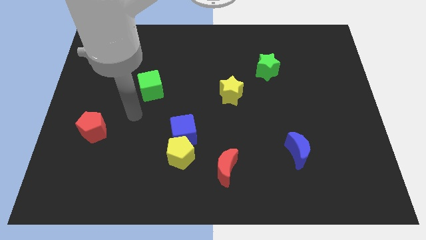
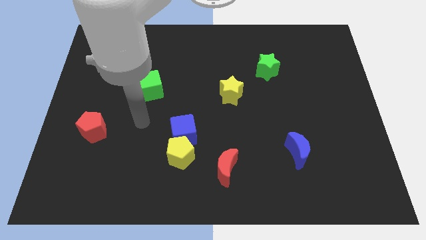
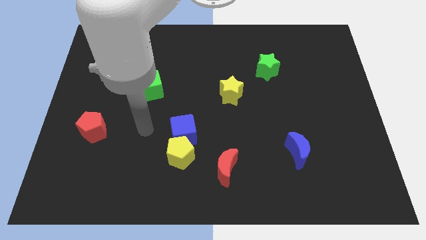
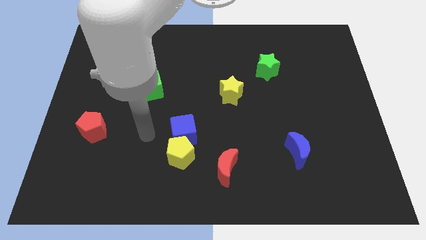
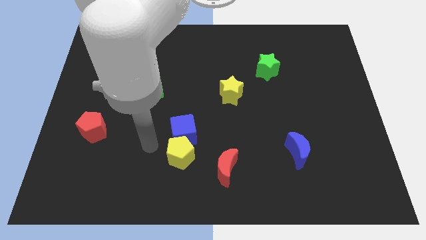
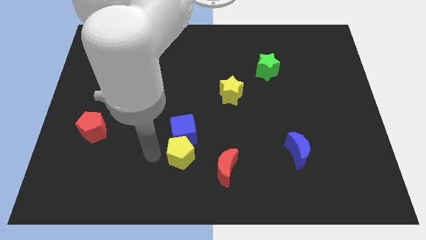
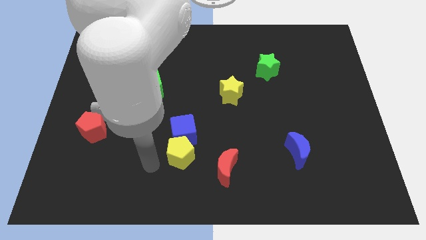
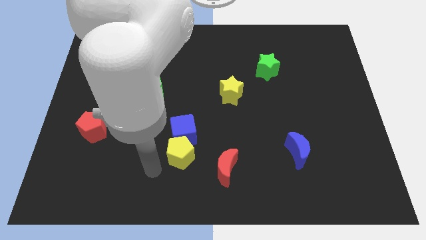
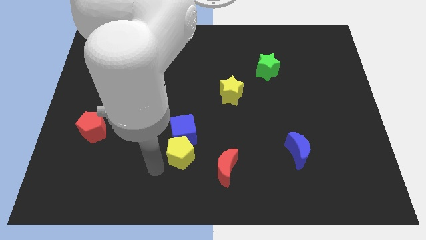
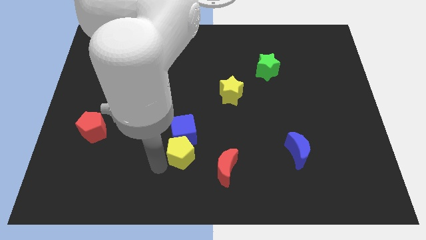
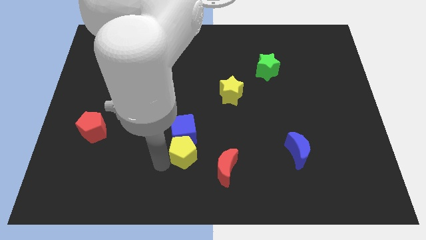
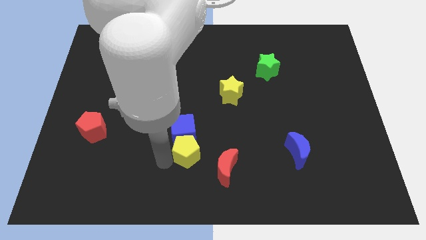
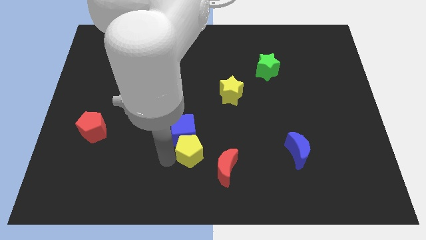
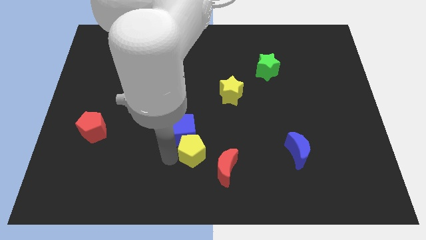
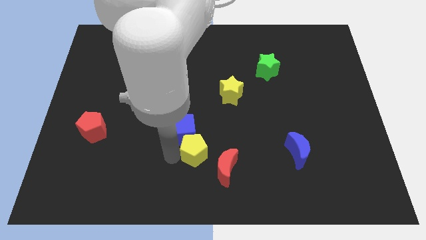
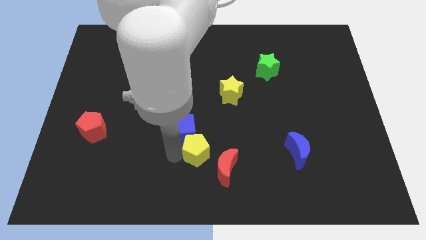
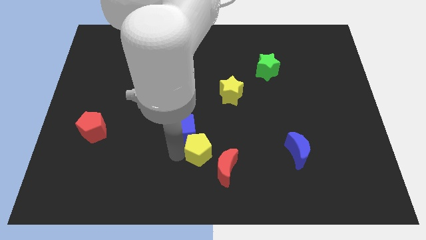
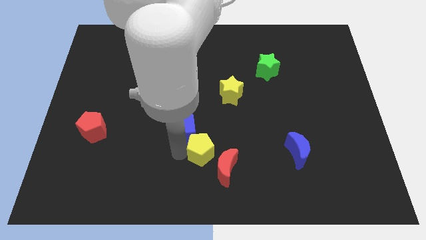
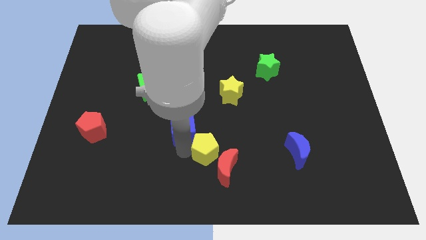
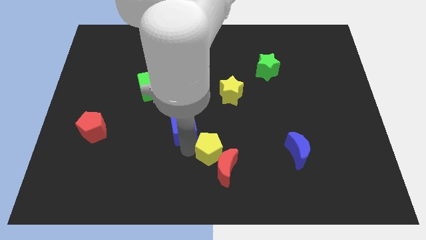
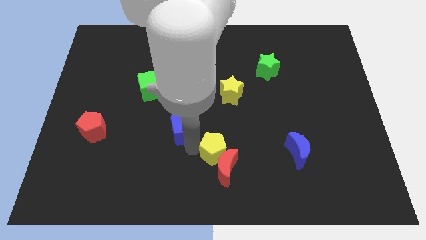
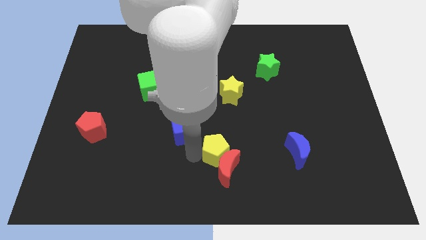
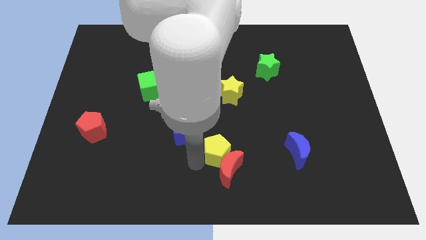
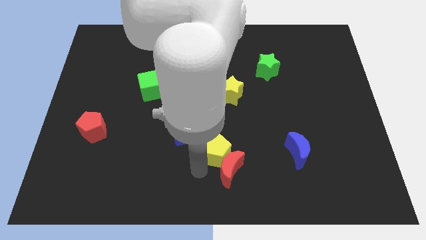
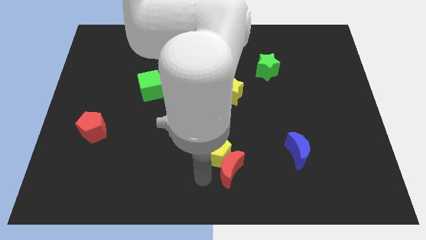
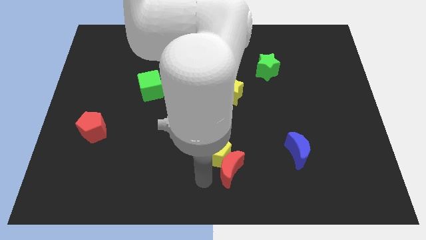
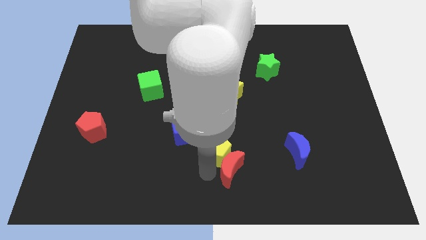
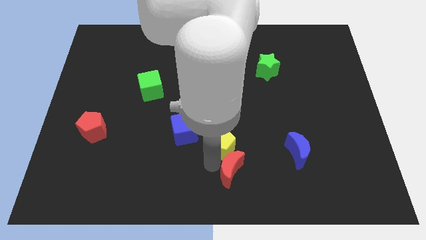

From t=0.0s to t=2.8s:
push the yellow pentagon slightly up and to the right diagonally

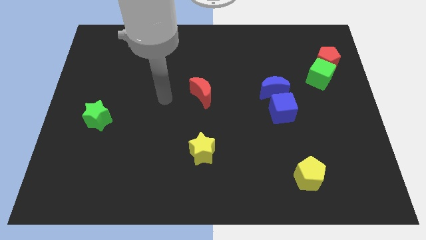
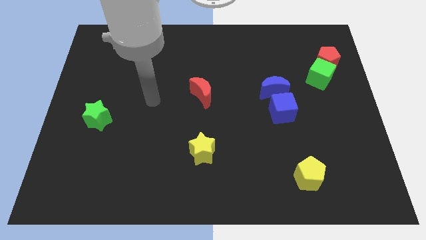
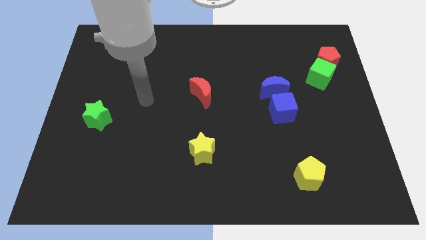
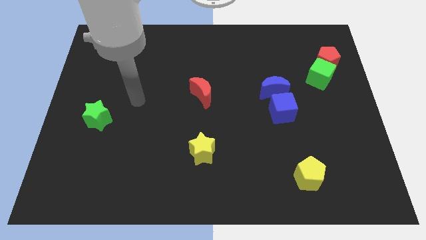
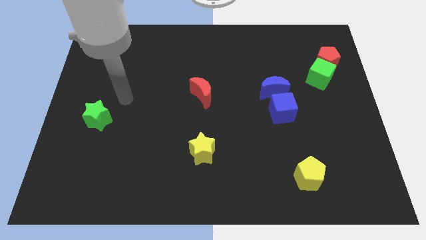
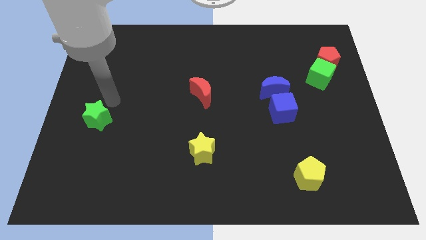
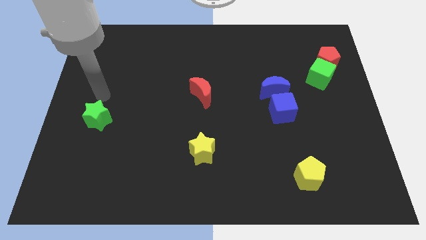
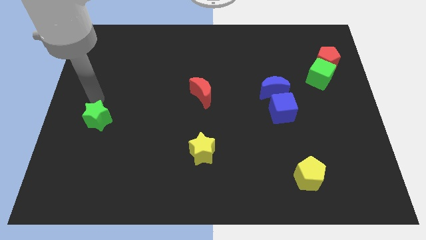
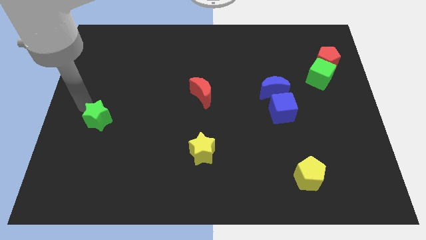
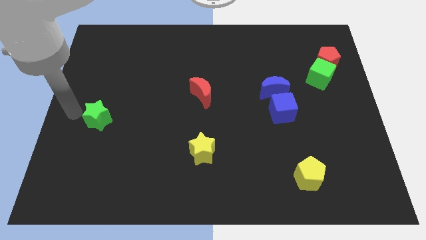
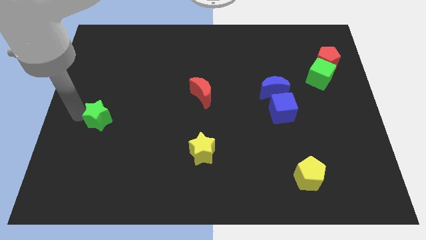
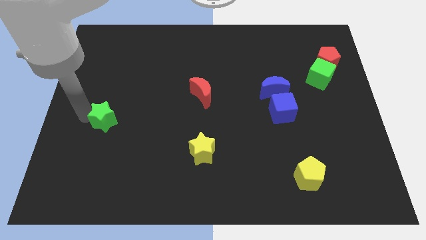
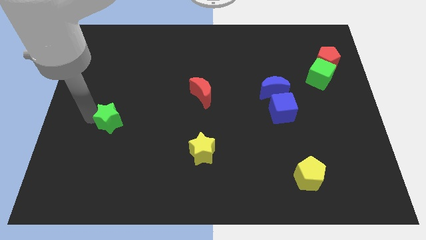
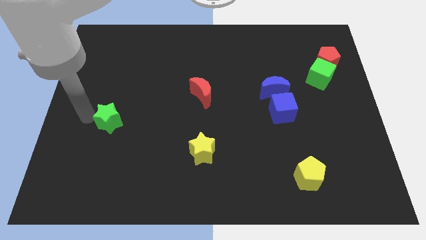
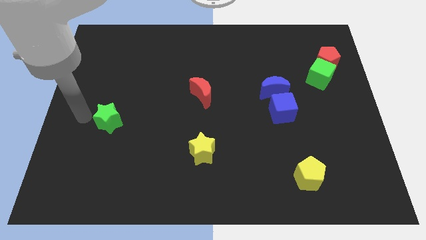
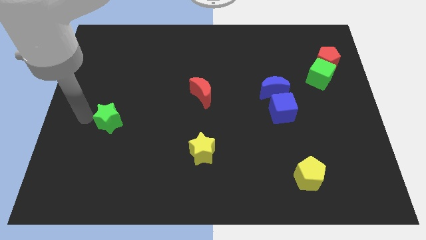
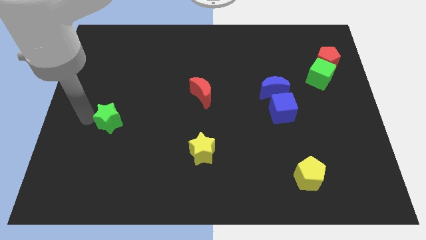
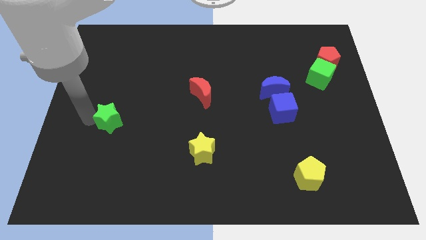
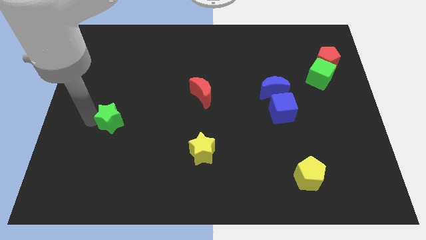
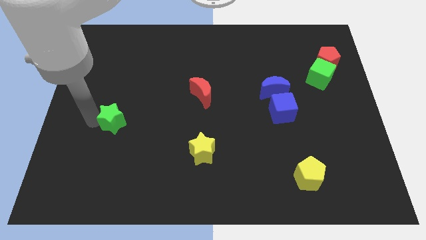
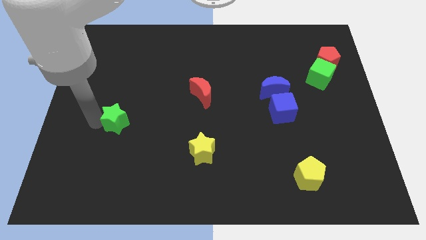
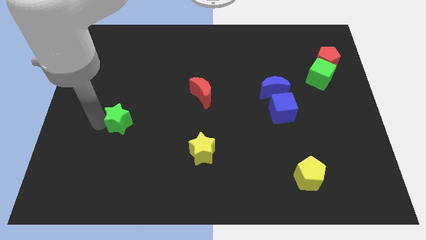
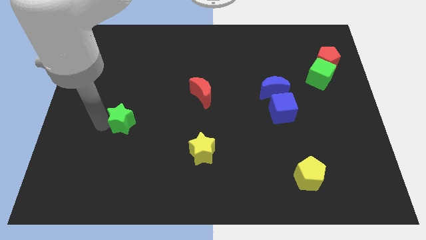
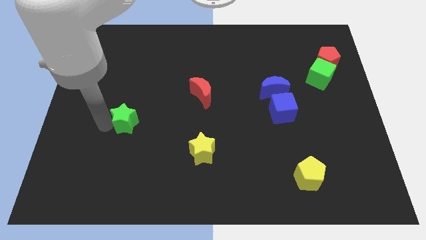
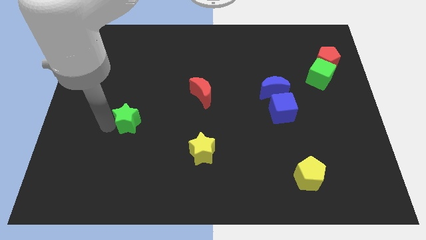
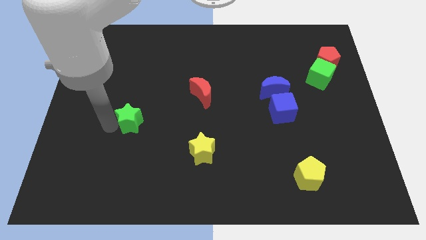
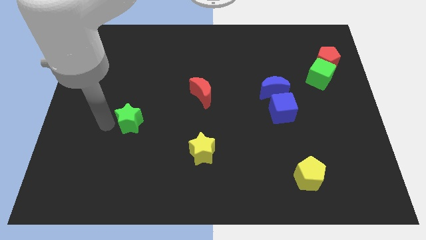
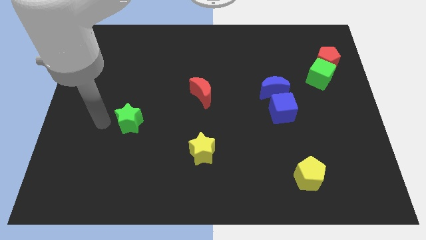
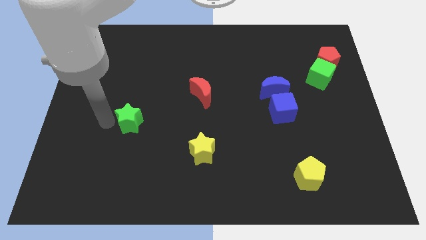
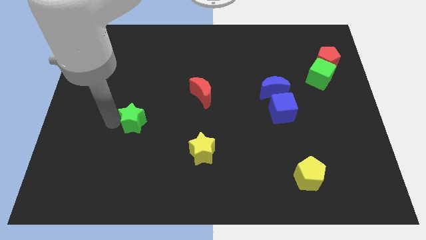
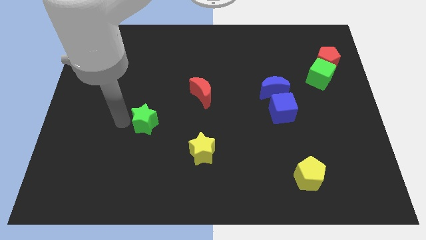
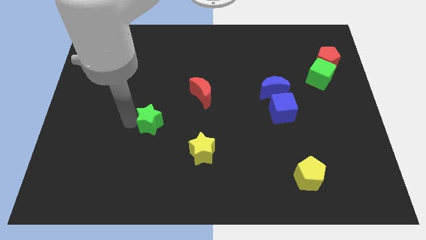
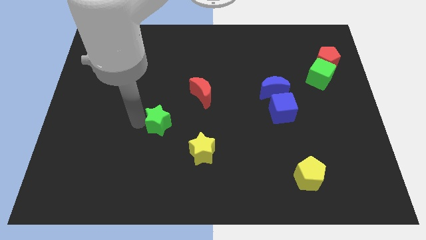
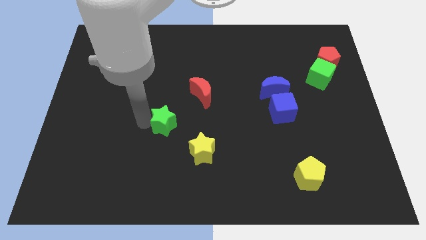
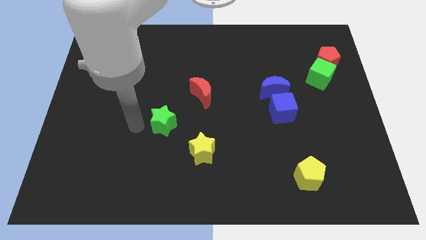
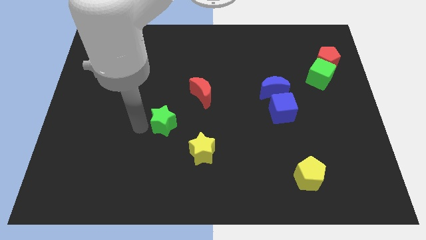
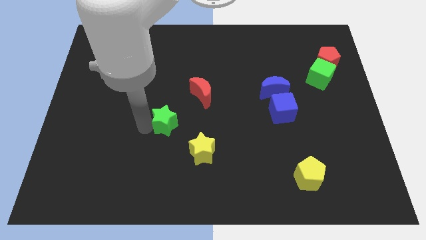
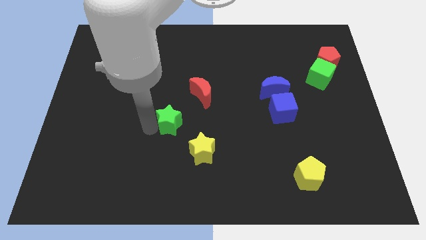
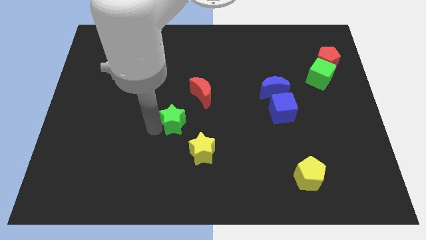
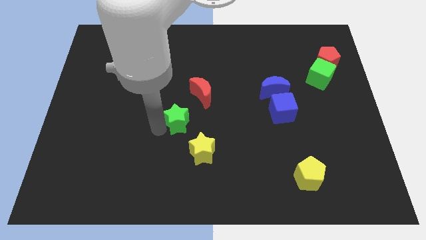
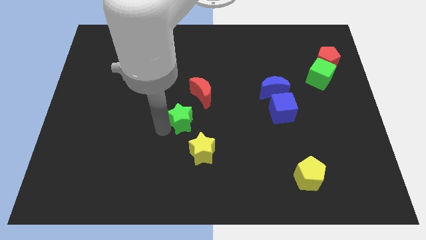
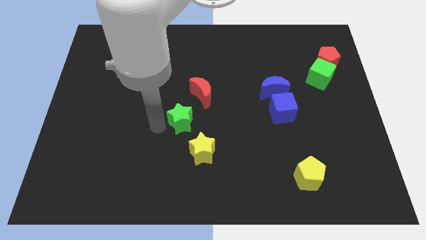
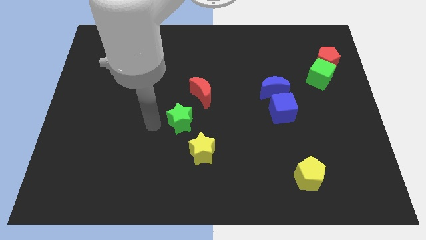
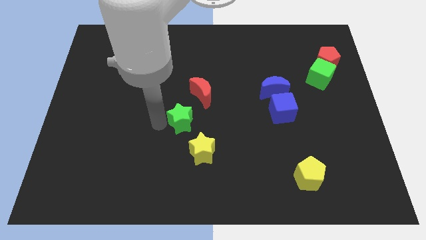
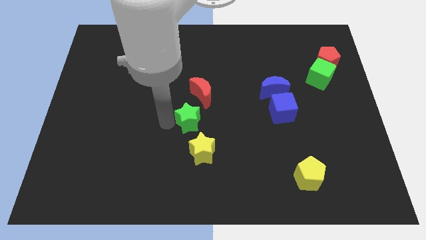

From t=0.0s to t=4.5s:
move the green star to the right

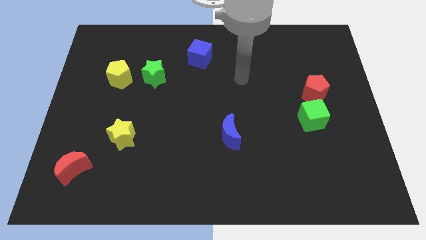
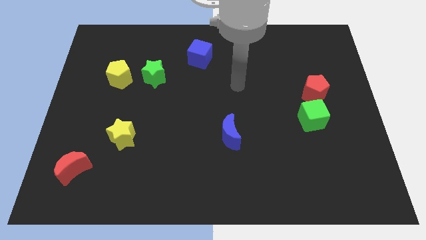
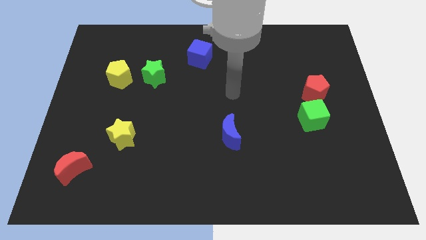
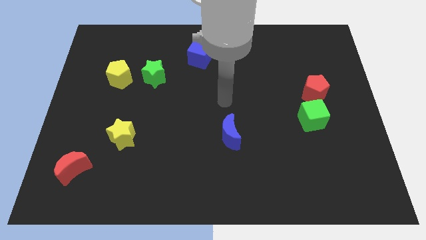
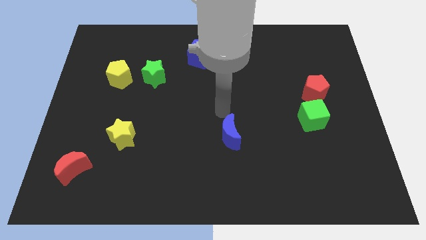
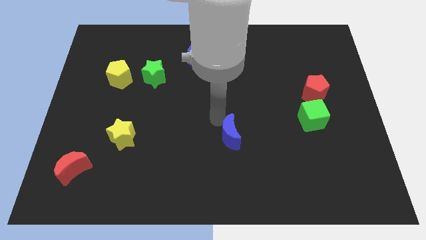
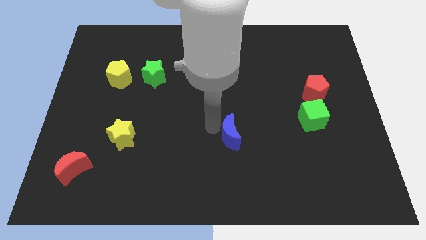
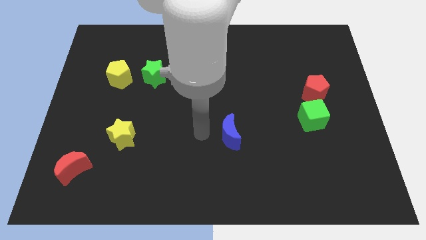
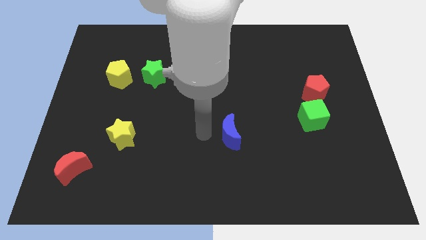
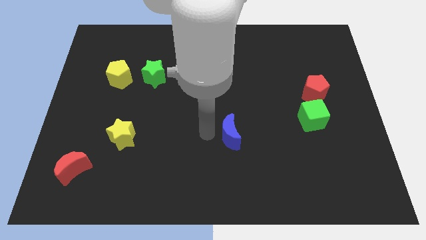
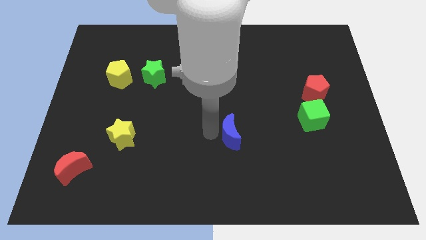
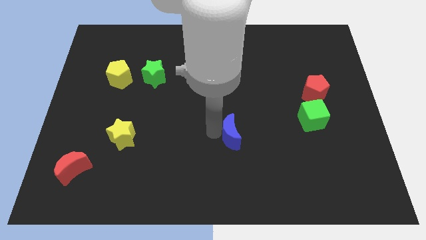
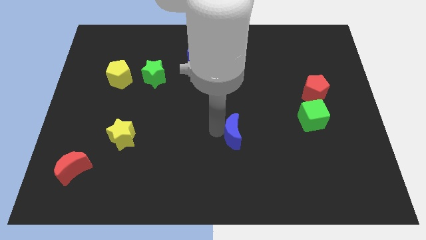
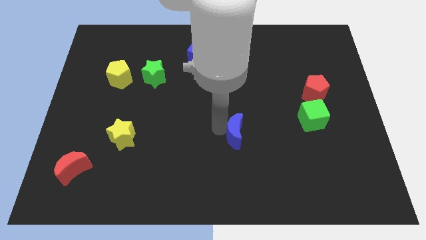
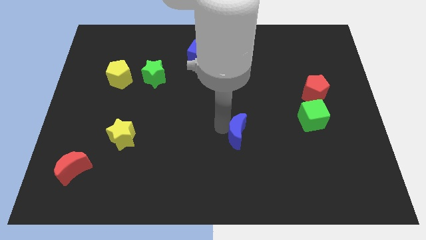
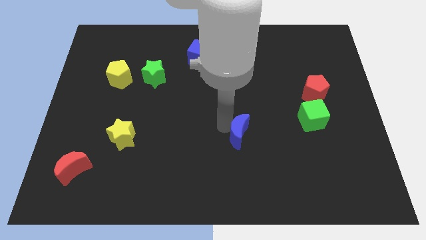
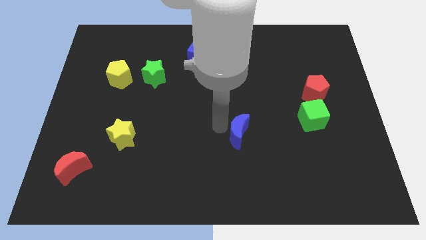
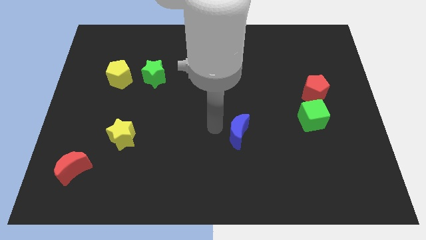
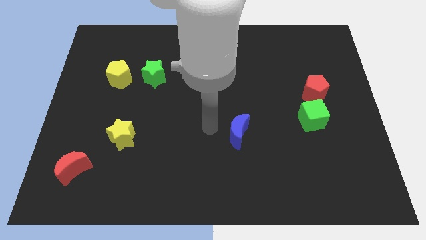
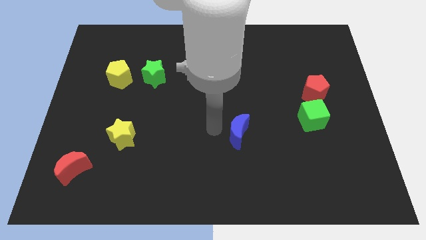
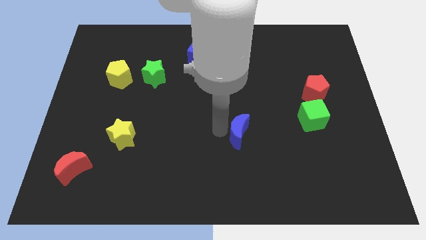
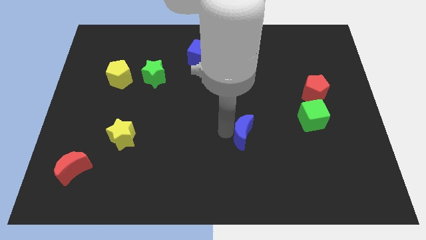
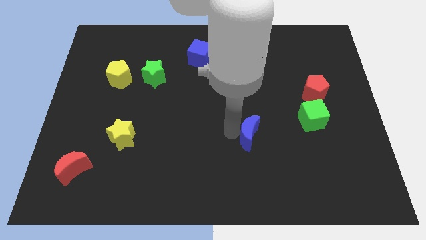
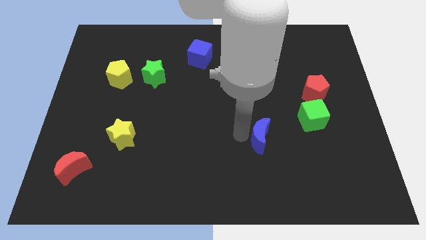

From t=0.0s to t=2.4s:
slide the blue moon slightly right
